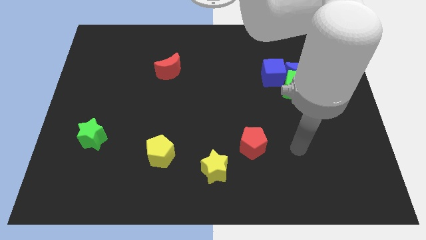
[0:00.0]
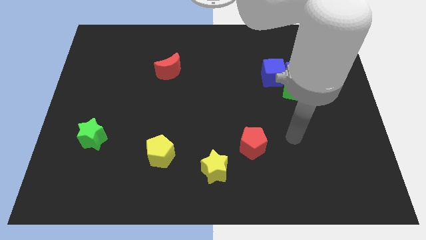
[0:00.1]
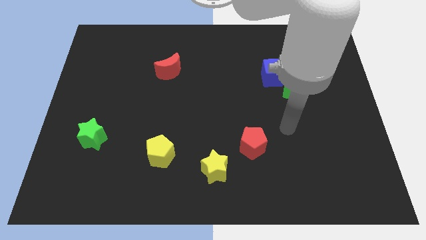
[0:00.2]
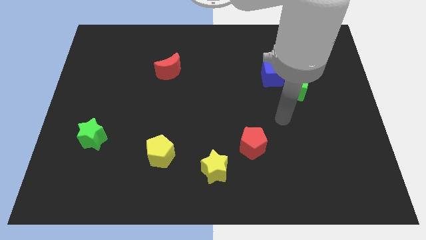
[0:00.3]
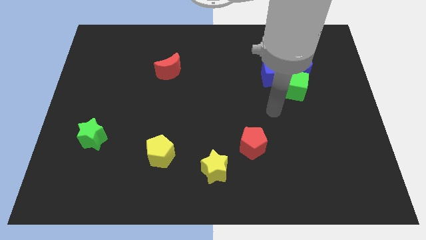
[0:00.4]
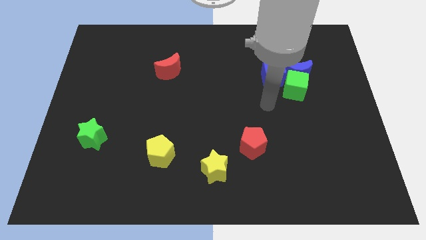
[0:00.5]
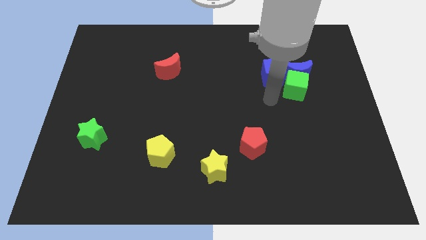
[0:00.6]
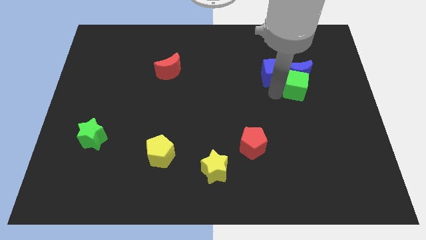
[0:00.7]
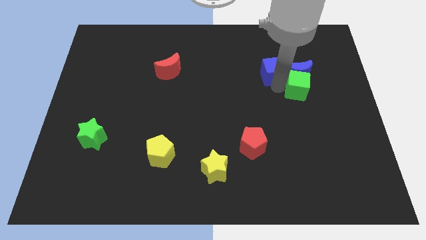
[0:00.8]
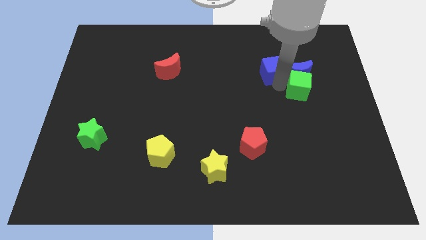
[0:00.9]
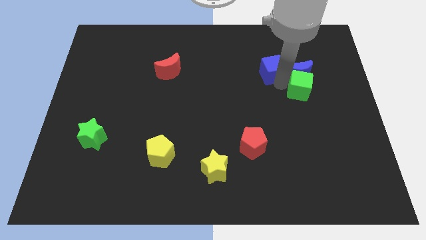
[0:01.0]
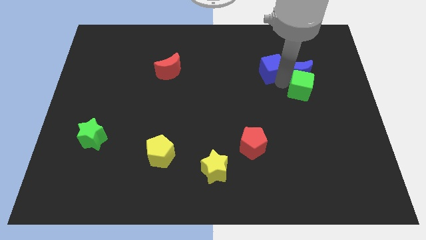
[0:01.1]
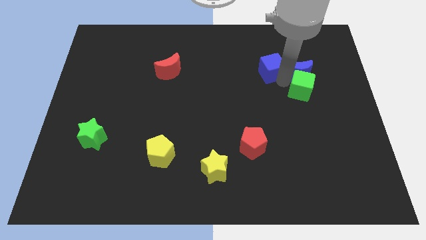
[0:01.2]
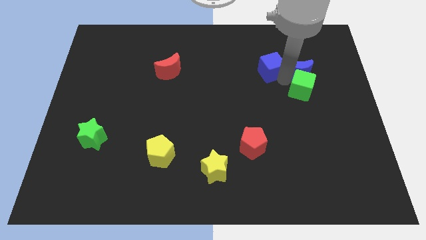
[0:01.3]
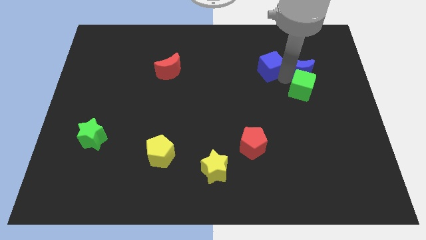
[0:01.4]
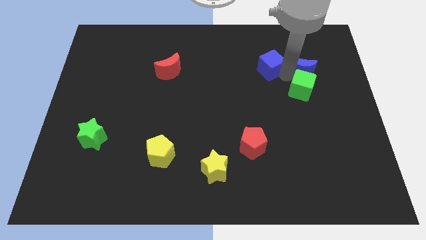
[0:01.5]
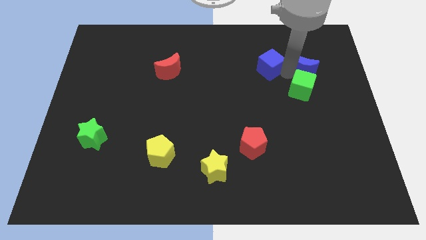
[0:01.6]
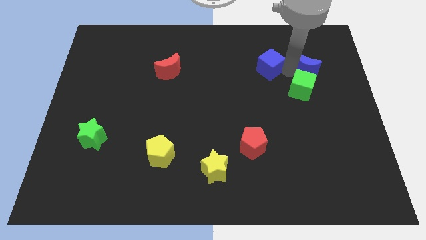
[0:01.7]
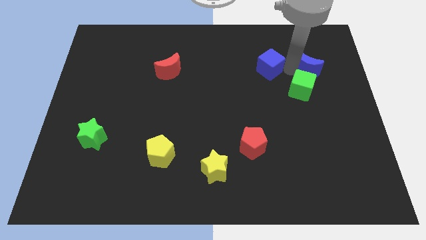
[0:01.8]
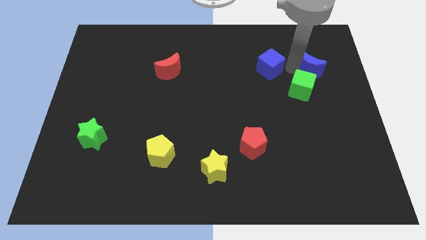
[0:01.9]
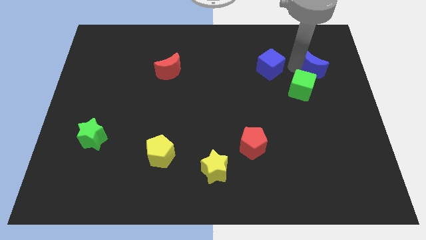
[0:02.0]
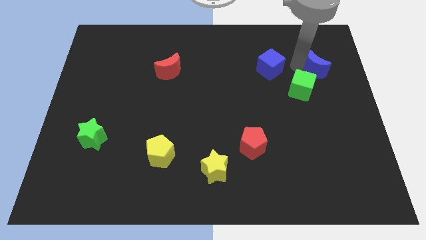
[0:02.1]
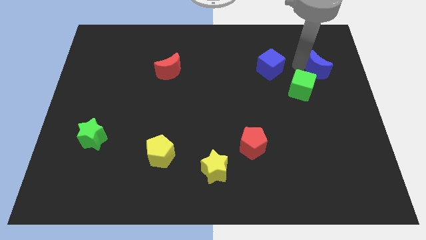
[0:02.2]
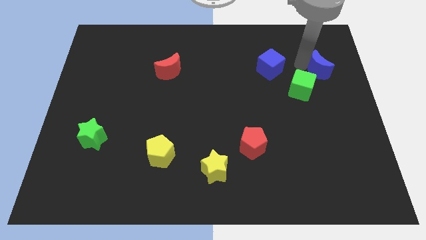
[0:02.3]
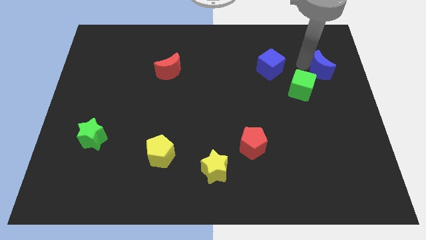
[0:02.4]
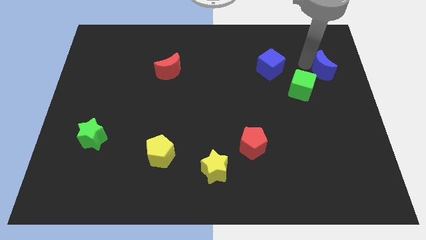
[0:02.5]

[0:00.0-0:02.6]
pull the blue moon apart from the green cube and blue cube

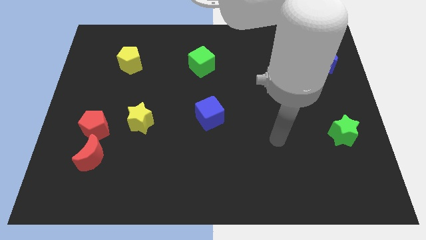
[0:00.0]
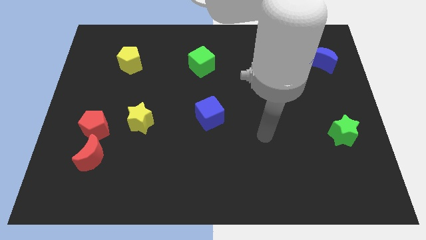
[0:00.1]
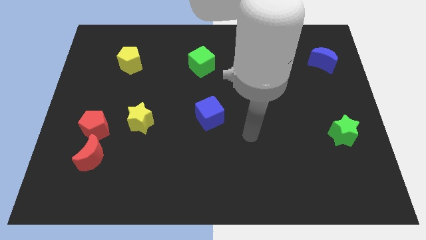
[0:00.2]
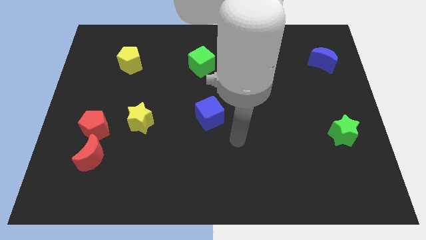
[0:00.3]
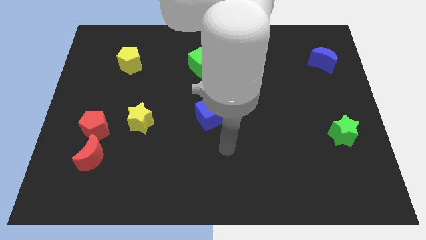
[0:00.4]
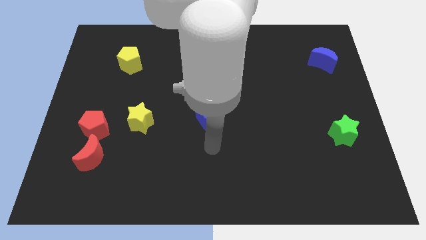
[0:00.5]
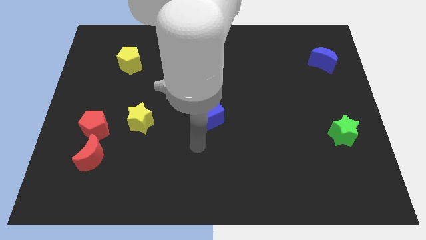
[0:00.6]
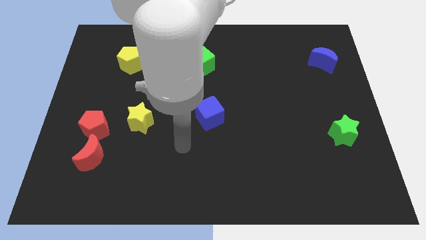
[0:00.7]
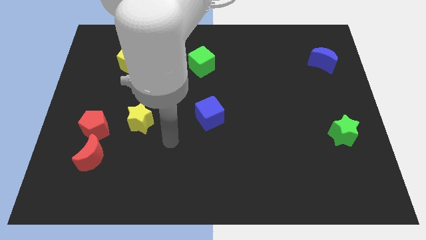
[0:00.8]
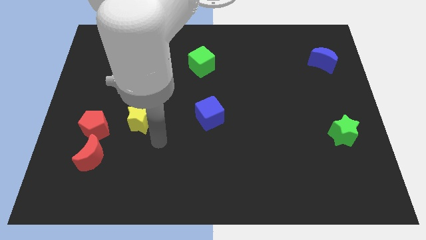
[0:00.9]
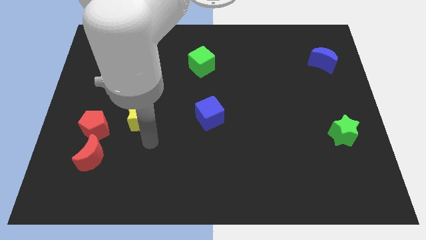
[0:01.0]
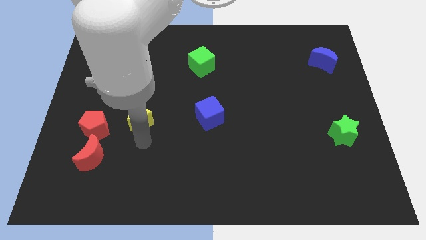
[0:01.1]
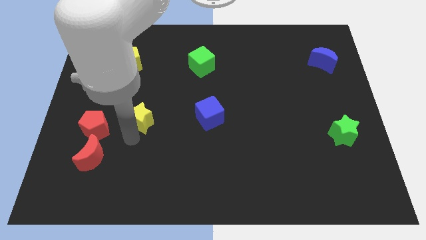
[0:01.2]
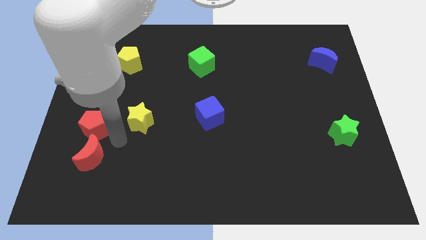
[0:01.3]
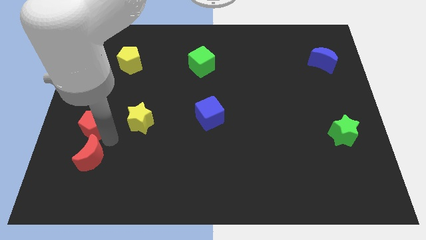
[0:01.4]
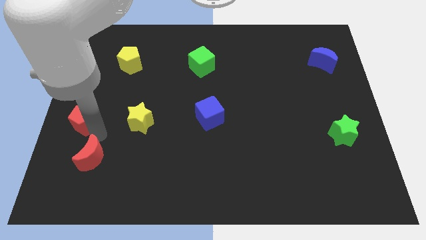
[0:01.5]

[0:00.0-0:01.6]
pull the red moon apart from the red pentagon

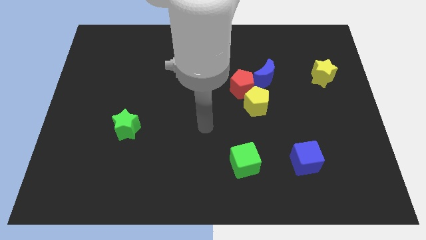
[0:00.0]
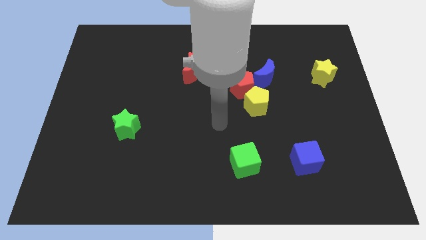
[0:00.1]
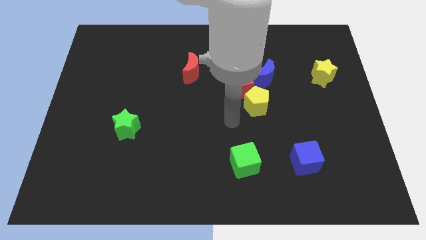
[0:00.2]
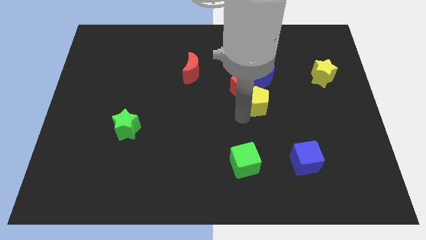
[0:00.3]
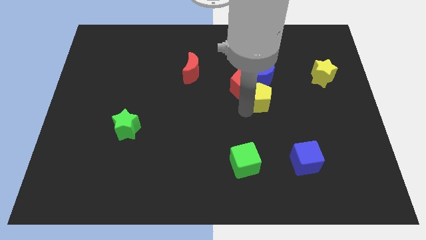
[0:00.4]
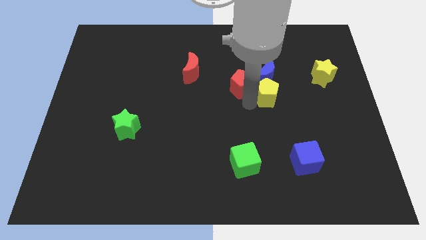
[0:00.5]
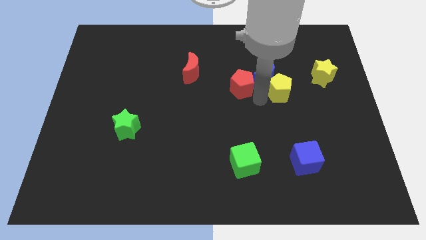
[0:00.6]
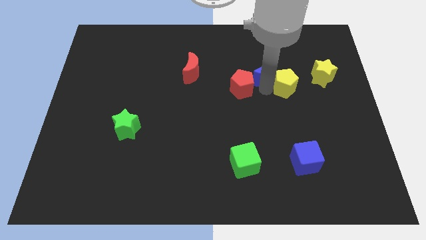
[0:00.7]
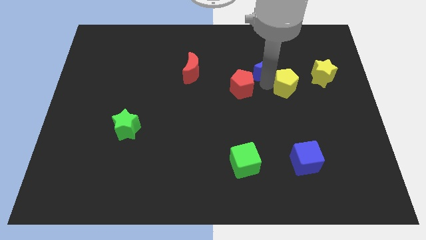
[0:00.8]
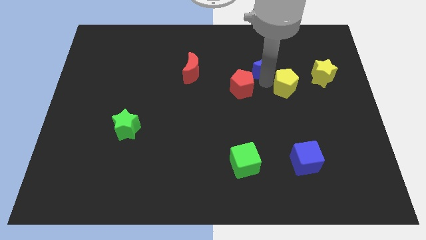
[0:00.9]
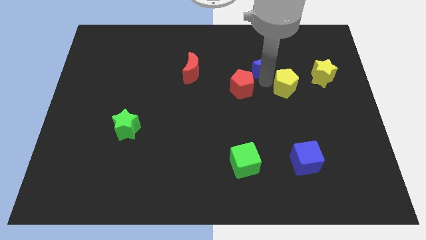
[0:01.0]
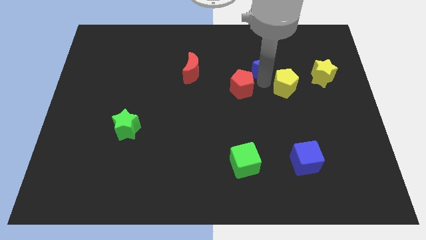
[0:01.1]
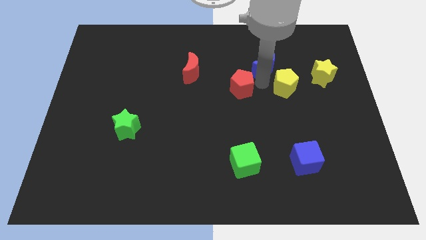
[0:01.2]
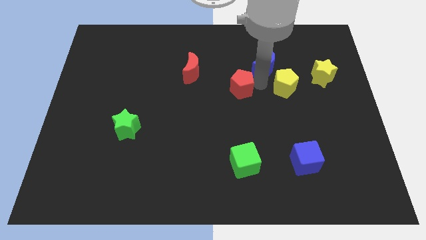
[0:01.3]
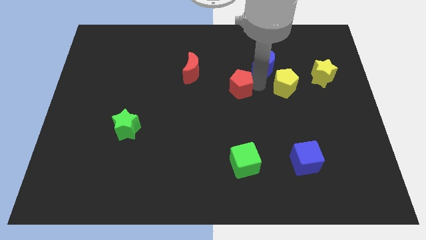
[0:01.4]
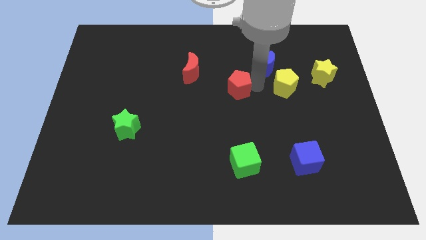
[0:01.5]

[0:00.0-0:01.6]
pull the red pentagon apart from the yellow pentagon and blue moon

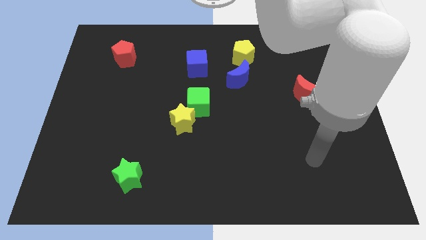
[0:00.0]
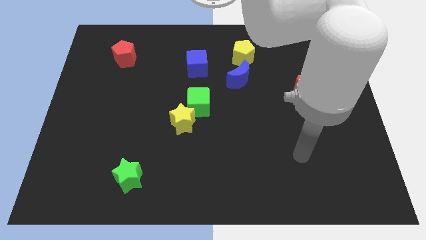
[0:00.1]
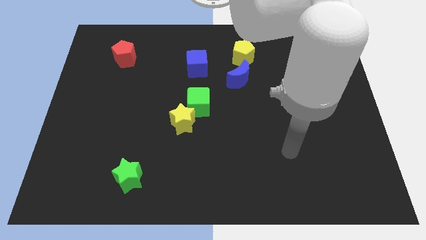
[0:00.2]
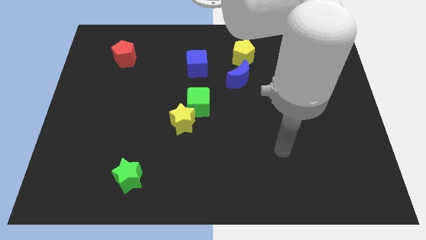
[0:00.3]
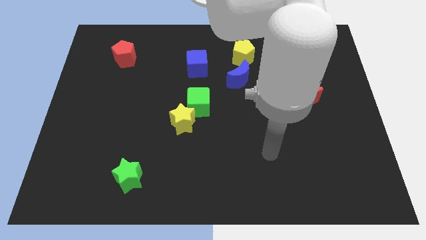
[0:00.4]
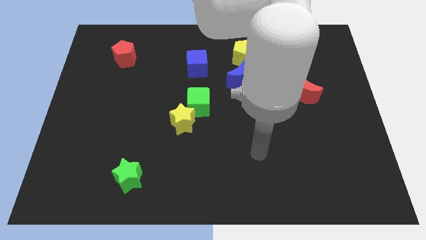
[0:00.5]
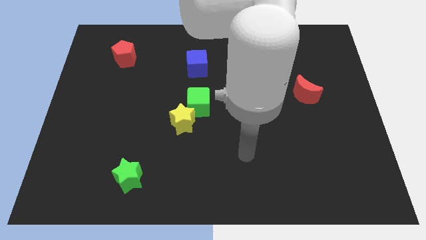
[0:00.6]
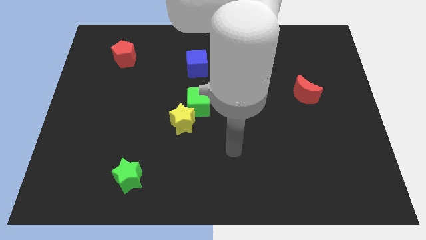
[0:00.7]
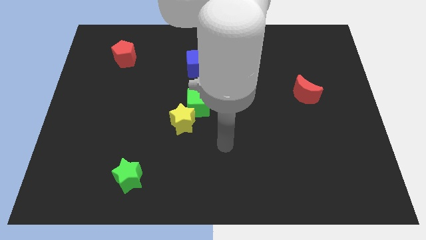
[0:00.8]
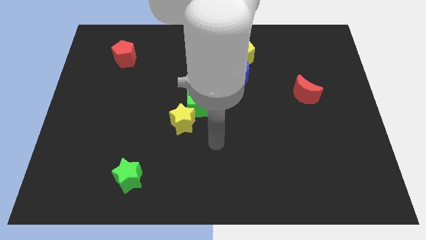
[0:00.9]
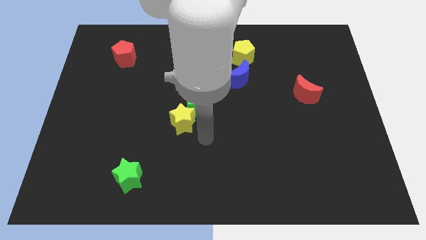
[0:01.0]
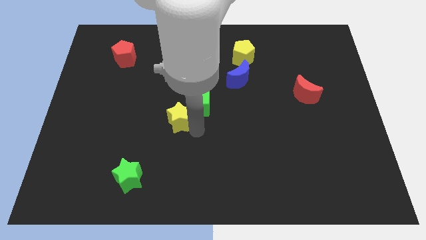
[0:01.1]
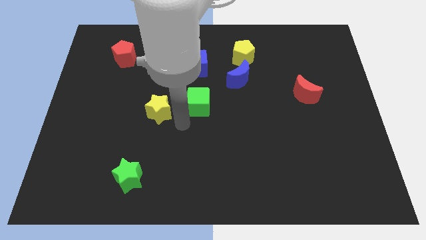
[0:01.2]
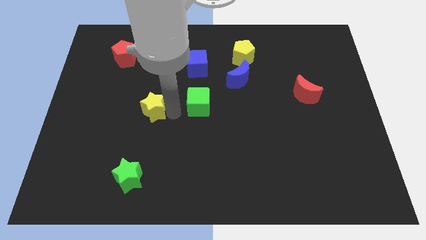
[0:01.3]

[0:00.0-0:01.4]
separate the green cube from the yellow star

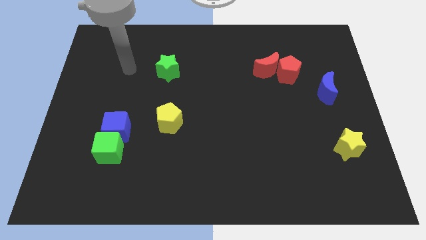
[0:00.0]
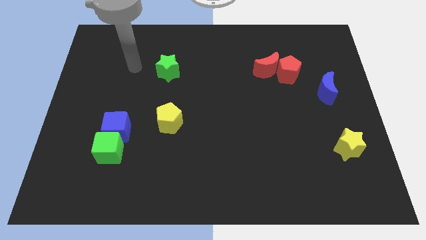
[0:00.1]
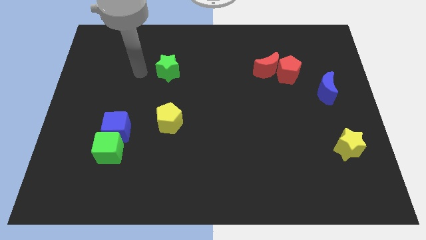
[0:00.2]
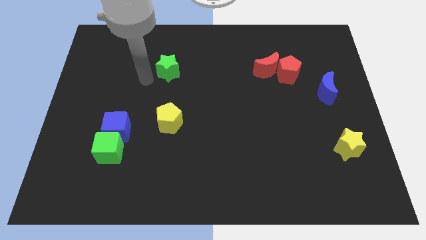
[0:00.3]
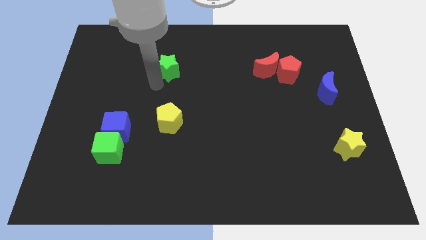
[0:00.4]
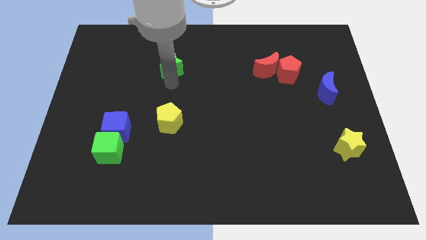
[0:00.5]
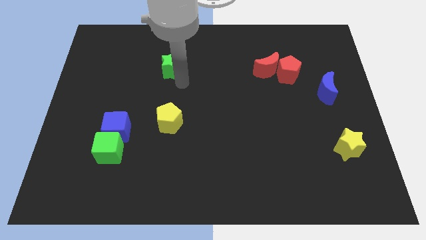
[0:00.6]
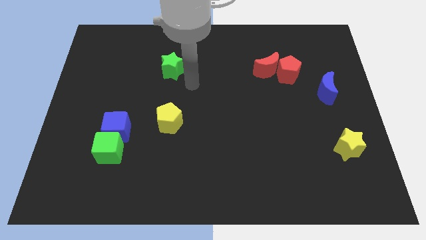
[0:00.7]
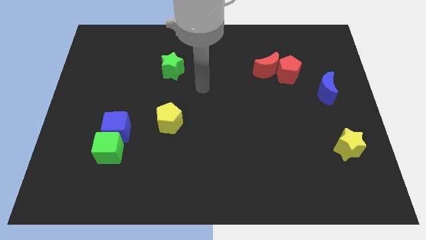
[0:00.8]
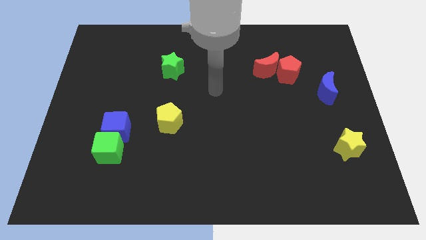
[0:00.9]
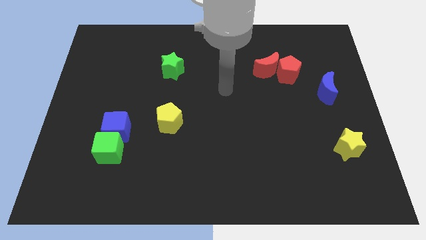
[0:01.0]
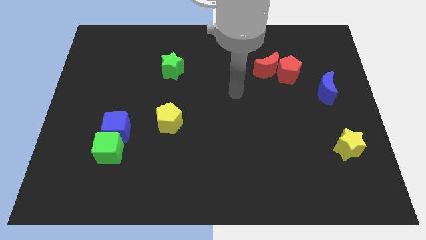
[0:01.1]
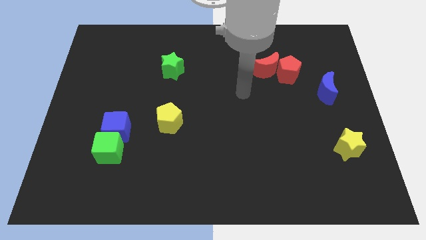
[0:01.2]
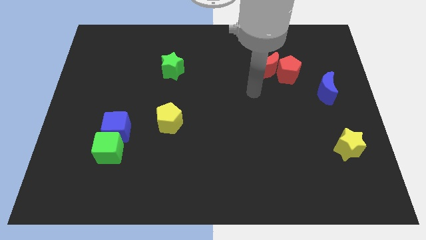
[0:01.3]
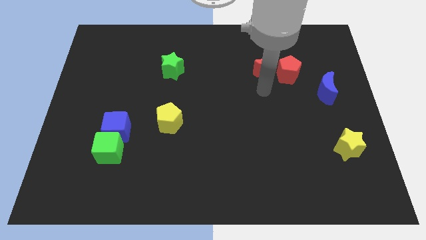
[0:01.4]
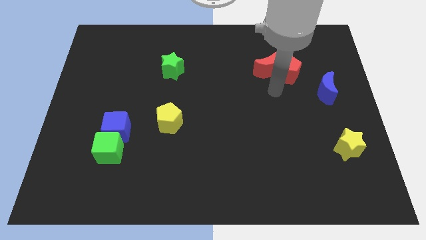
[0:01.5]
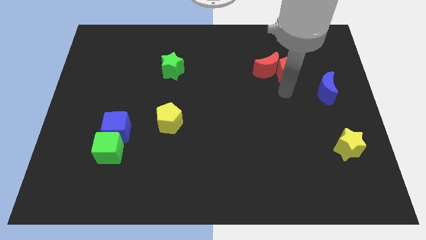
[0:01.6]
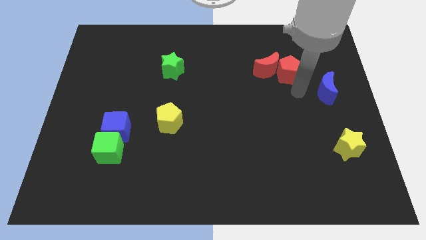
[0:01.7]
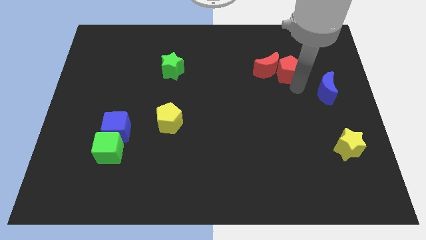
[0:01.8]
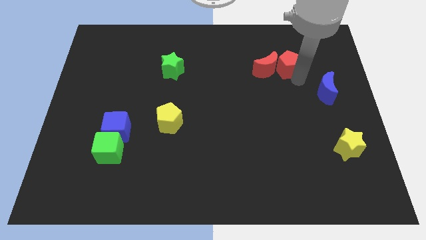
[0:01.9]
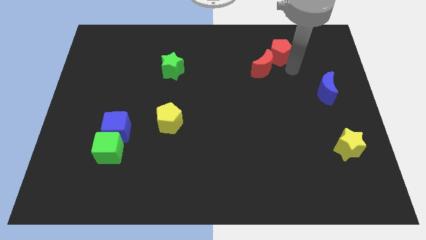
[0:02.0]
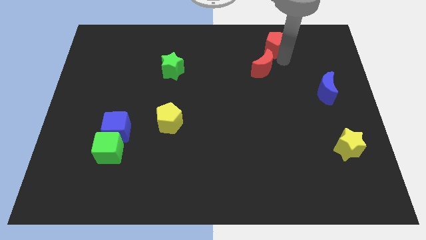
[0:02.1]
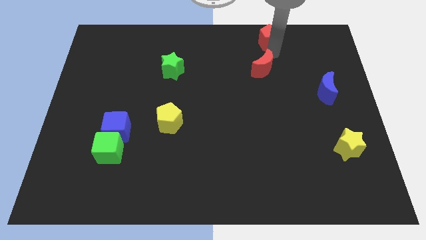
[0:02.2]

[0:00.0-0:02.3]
separate the red moon from the red pentagon
